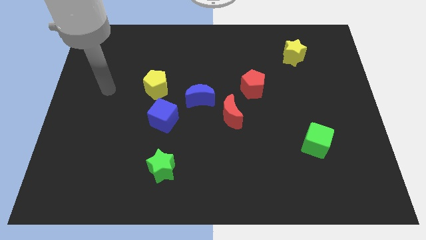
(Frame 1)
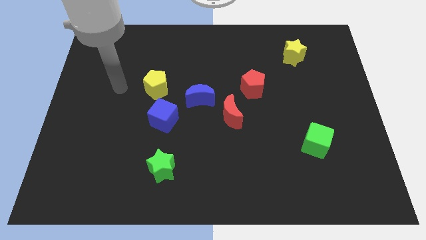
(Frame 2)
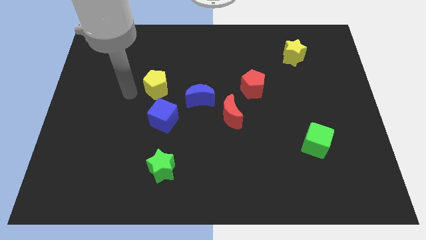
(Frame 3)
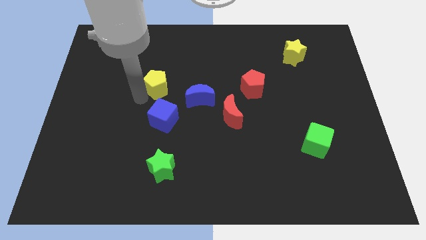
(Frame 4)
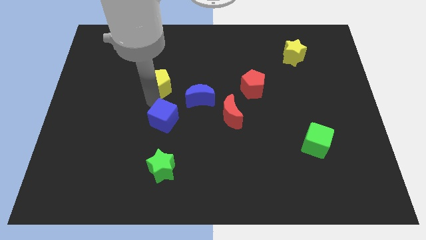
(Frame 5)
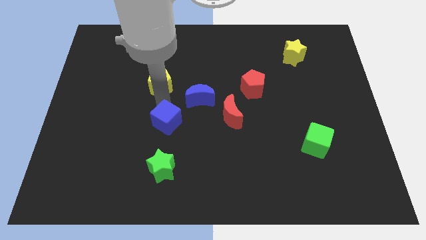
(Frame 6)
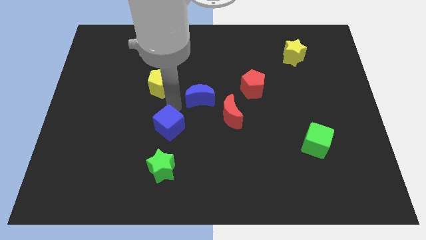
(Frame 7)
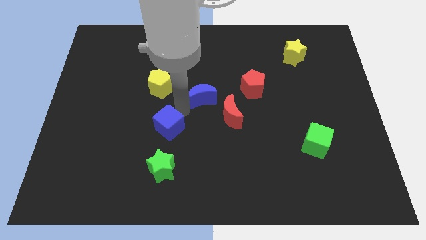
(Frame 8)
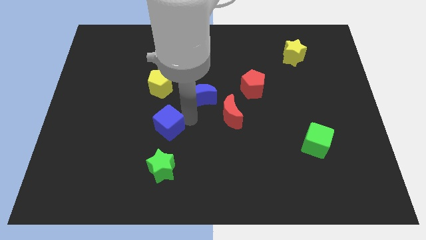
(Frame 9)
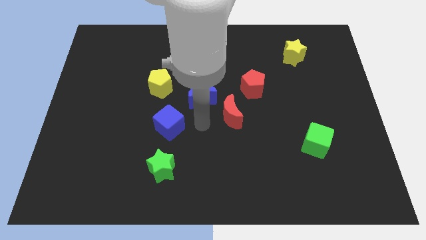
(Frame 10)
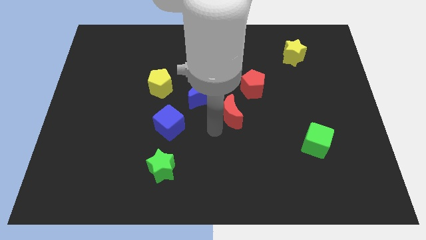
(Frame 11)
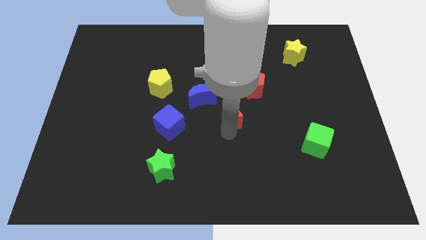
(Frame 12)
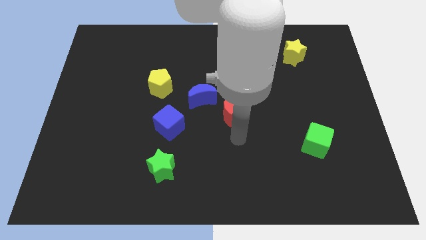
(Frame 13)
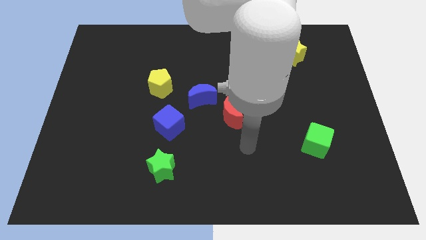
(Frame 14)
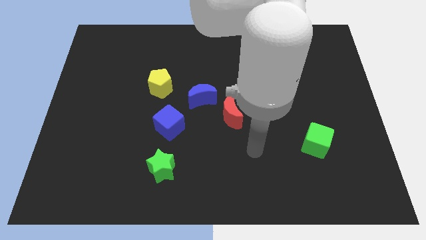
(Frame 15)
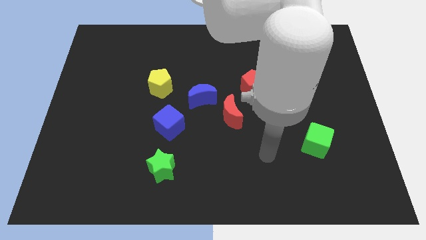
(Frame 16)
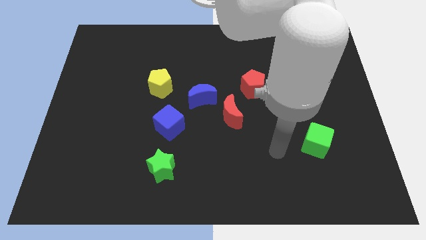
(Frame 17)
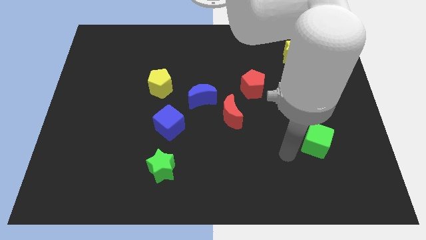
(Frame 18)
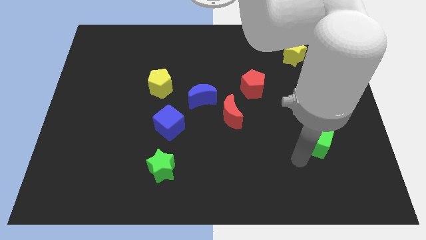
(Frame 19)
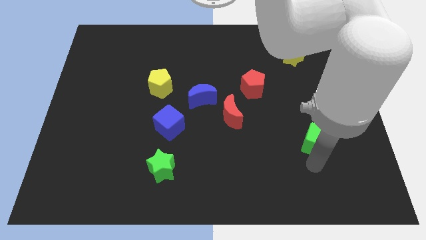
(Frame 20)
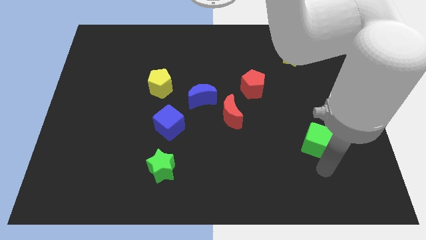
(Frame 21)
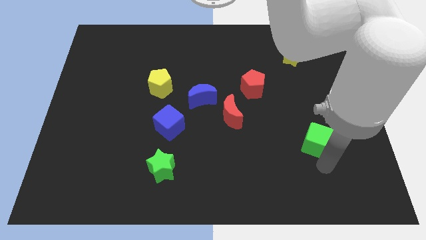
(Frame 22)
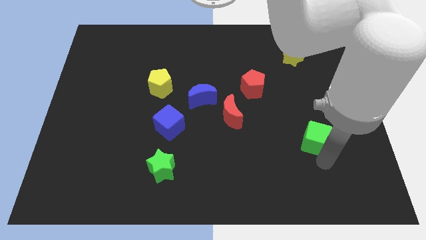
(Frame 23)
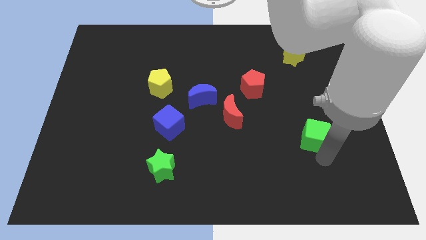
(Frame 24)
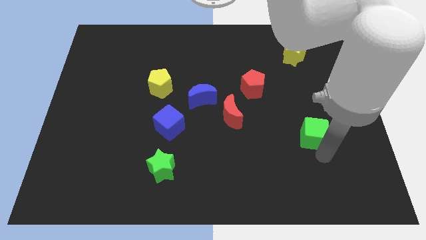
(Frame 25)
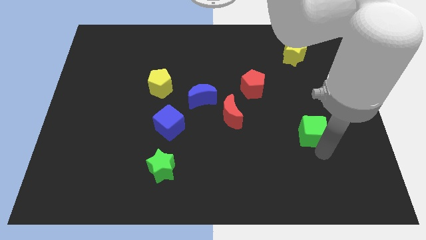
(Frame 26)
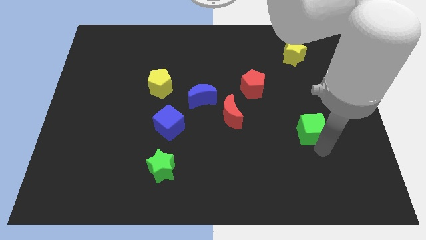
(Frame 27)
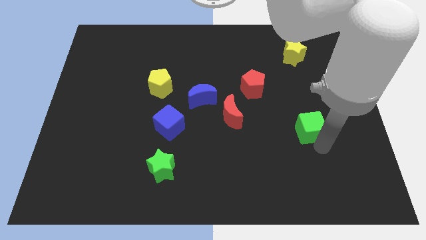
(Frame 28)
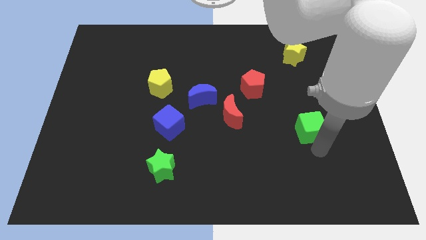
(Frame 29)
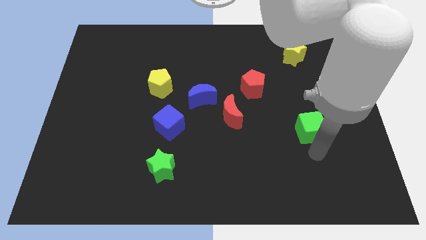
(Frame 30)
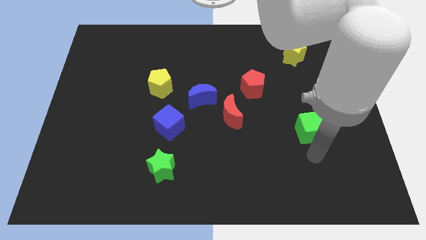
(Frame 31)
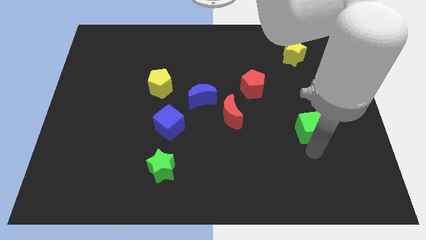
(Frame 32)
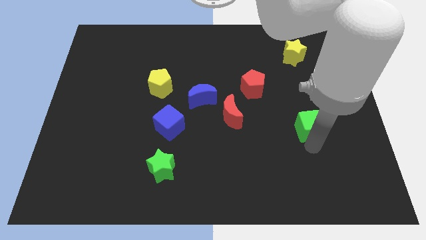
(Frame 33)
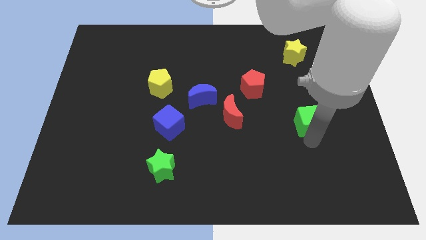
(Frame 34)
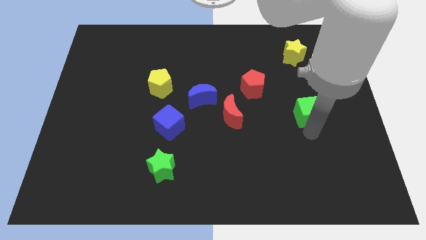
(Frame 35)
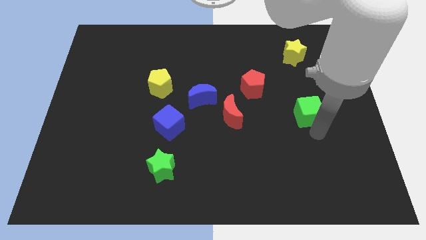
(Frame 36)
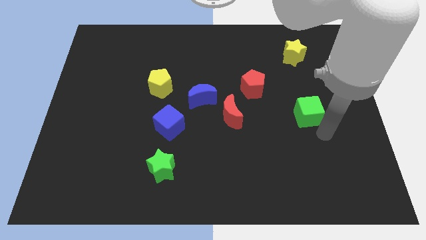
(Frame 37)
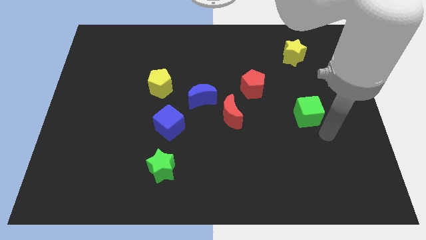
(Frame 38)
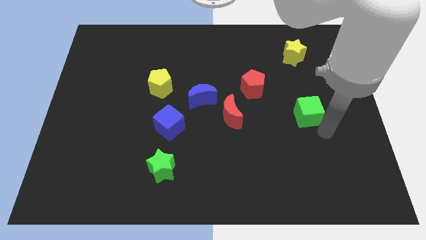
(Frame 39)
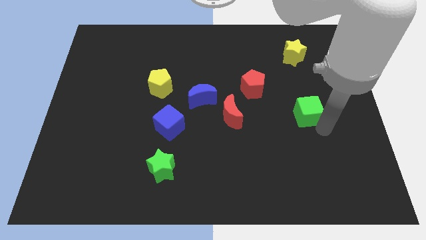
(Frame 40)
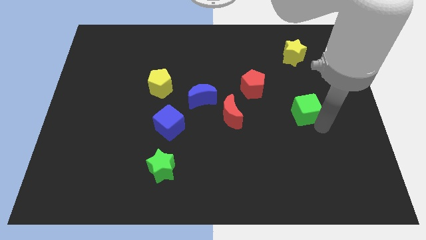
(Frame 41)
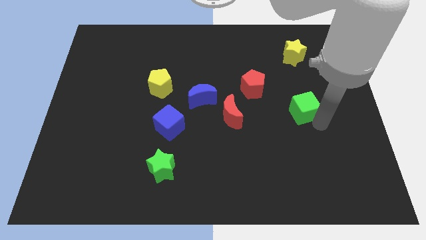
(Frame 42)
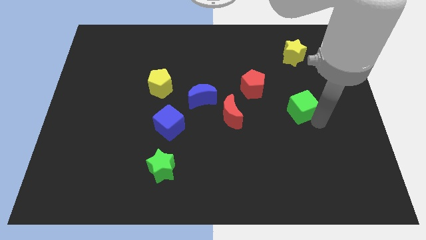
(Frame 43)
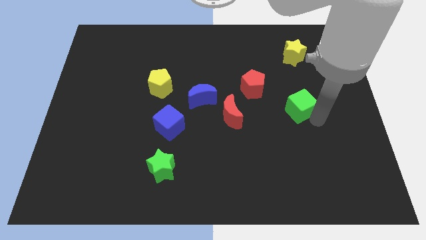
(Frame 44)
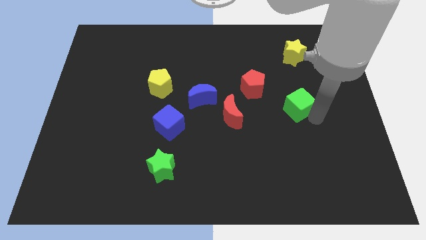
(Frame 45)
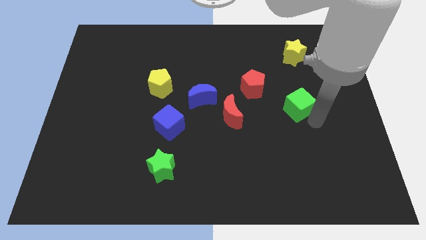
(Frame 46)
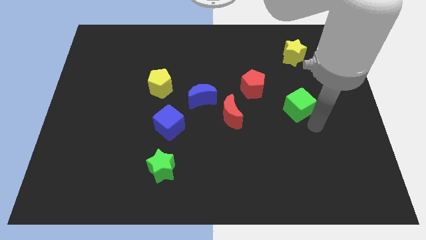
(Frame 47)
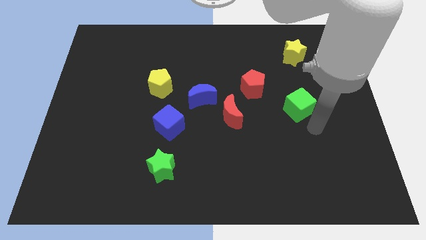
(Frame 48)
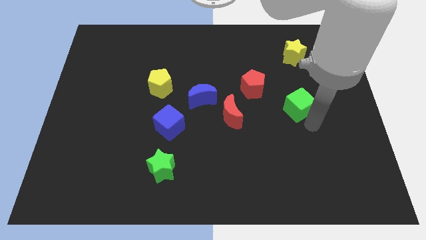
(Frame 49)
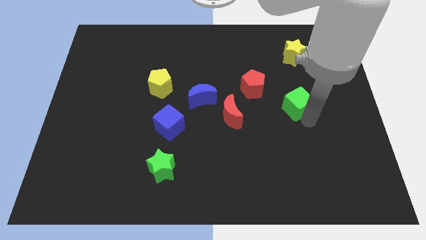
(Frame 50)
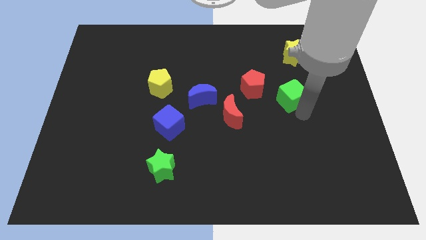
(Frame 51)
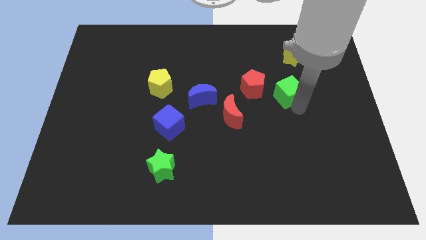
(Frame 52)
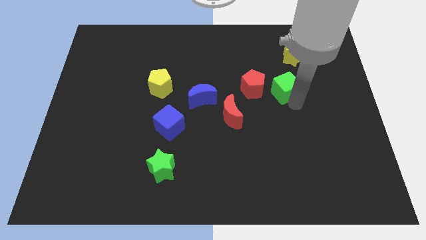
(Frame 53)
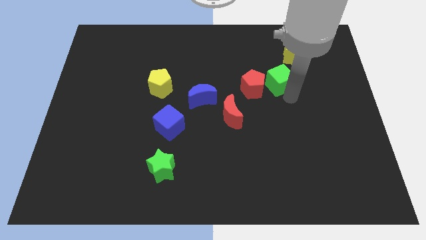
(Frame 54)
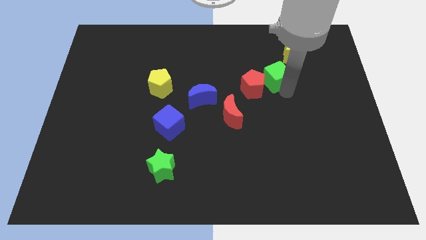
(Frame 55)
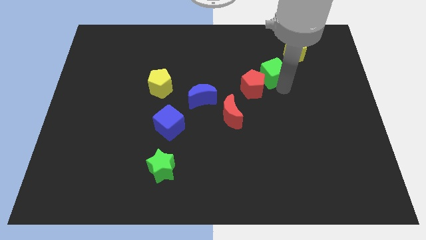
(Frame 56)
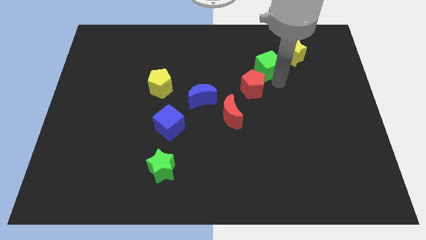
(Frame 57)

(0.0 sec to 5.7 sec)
push the green cube to the top side of the red pentagon

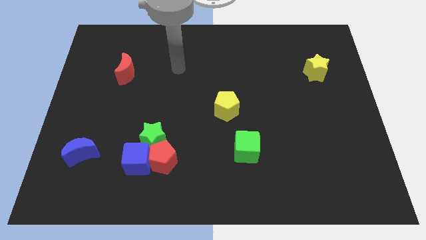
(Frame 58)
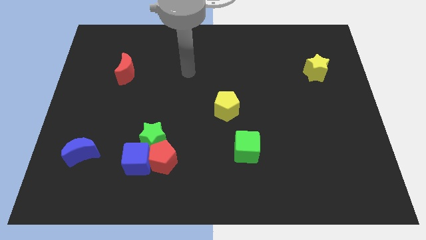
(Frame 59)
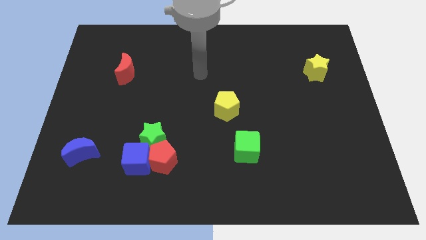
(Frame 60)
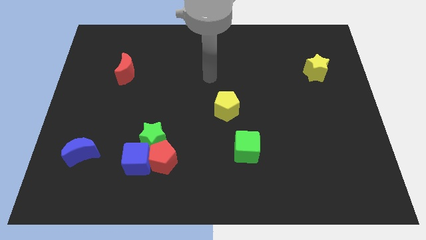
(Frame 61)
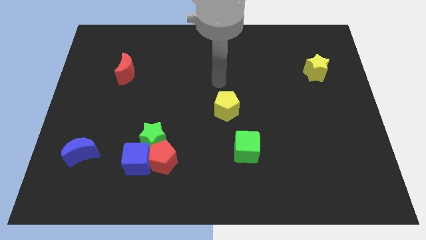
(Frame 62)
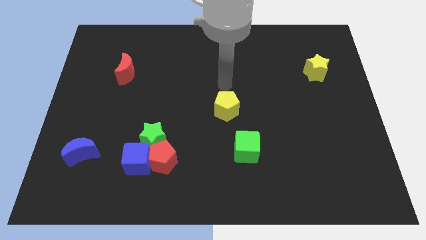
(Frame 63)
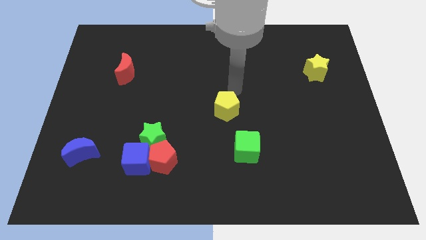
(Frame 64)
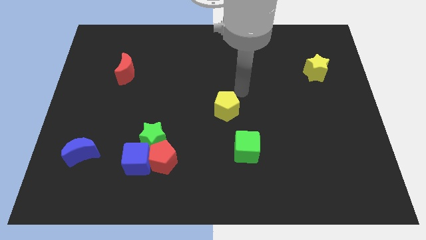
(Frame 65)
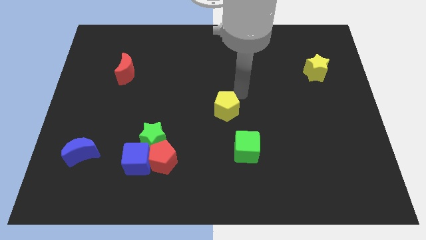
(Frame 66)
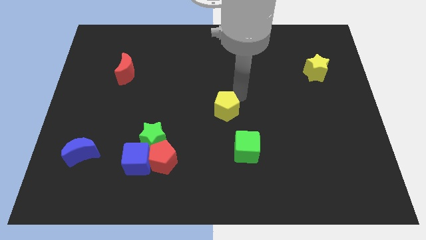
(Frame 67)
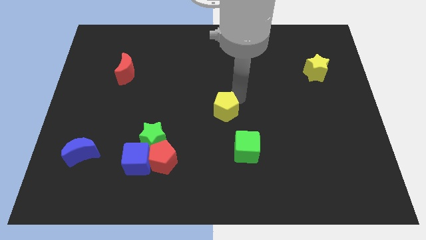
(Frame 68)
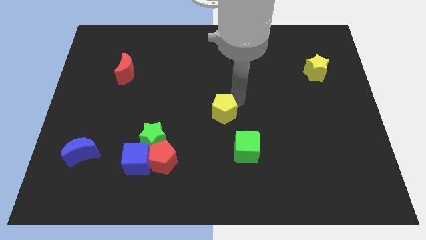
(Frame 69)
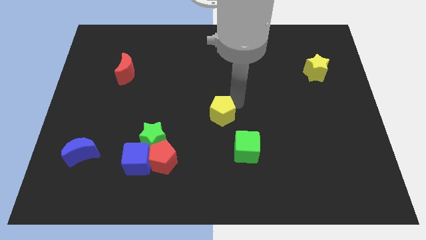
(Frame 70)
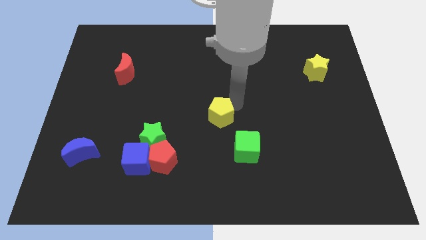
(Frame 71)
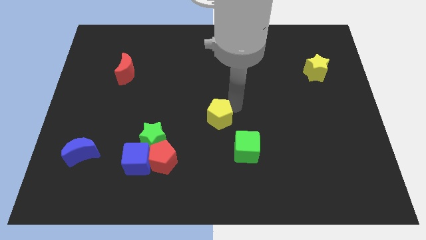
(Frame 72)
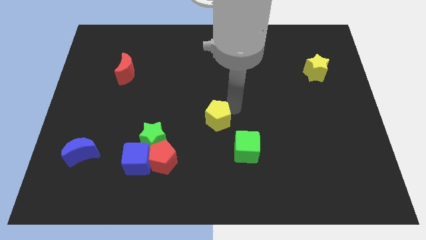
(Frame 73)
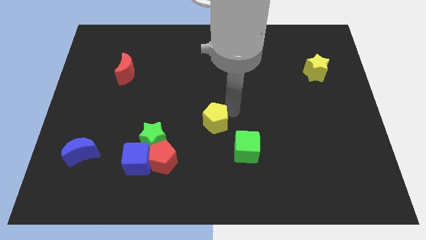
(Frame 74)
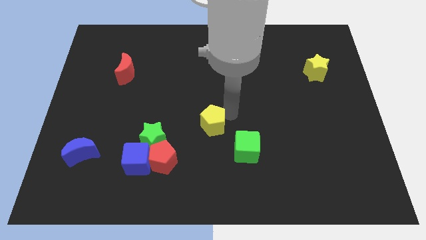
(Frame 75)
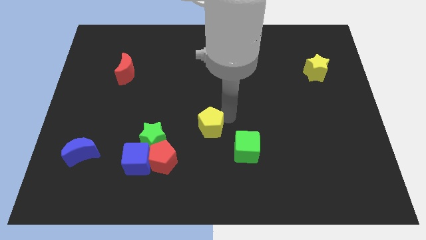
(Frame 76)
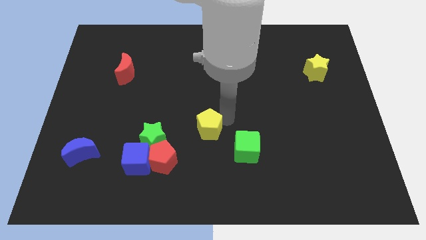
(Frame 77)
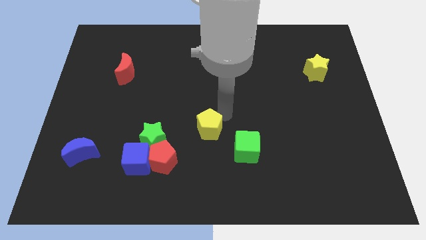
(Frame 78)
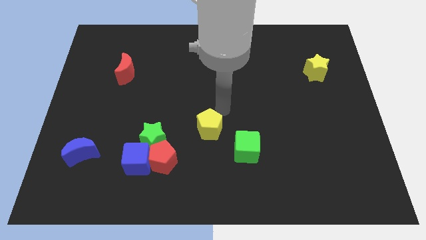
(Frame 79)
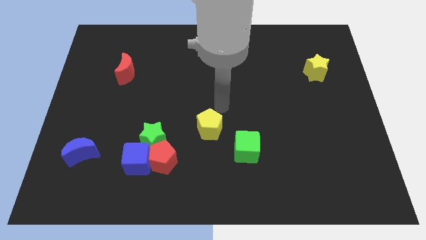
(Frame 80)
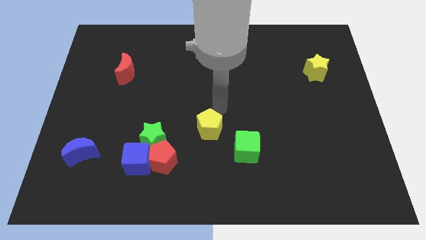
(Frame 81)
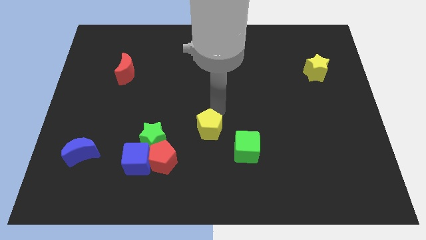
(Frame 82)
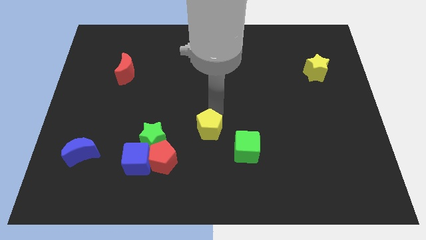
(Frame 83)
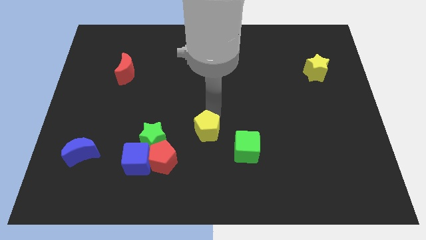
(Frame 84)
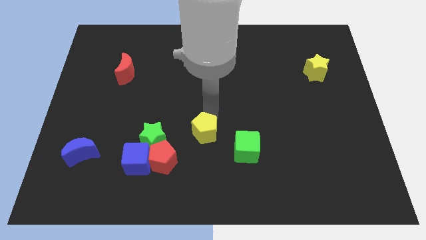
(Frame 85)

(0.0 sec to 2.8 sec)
push the yellow pentagon left of the green cube
